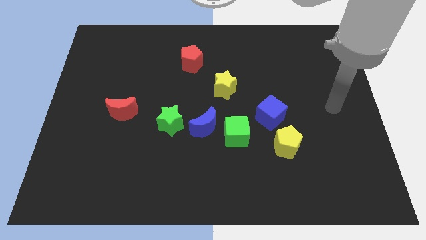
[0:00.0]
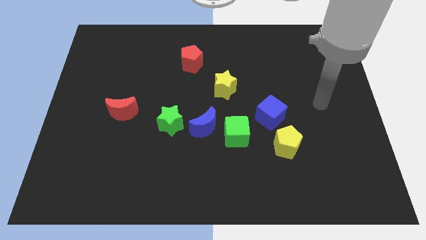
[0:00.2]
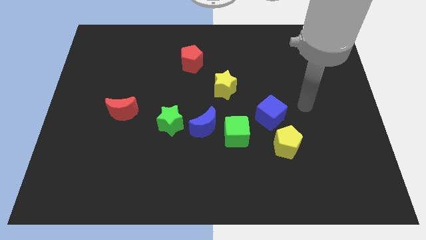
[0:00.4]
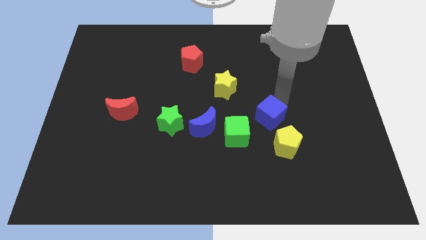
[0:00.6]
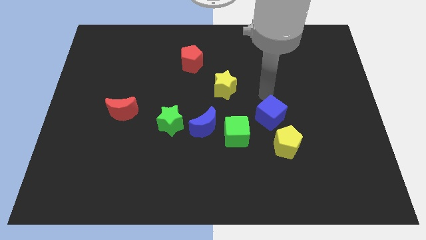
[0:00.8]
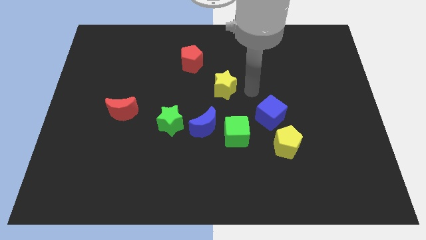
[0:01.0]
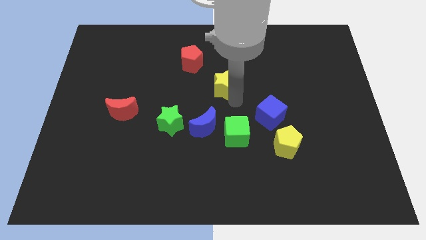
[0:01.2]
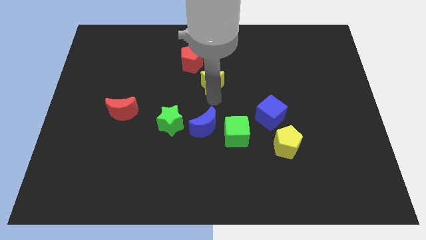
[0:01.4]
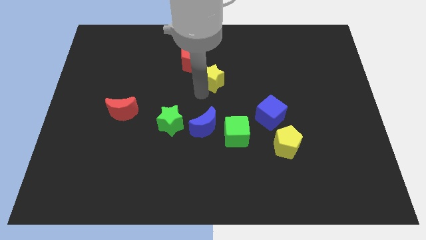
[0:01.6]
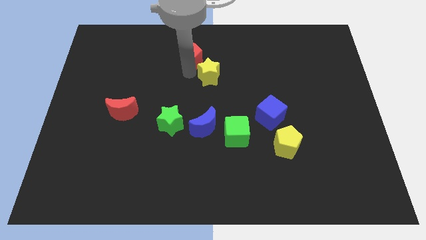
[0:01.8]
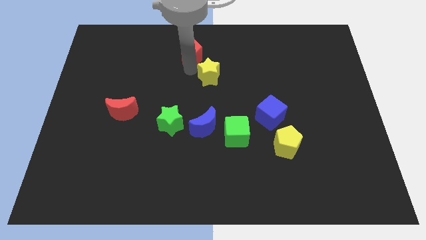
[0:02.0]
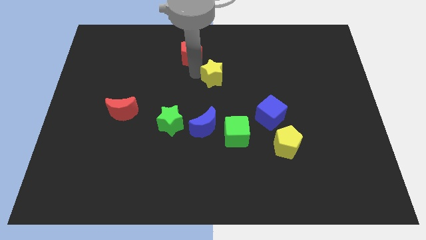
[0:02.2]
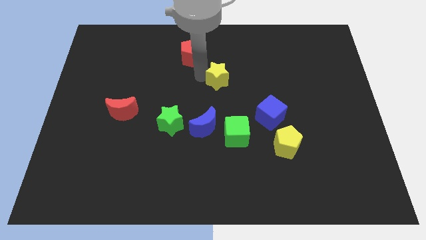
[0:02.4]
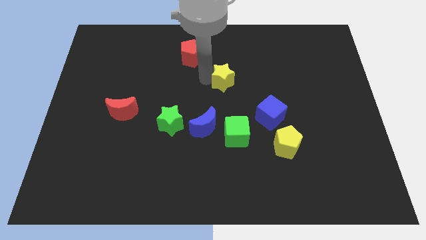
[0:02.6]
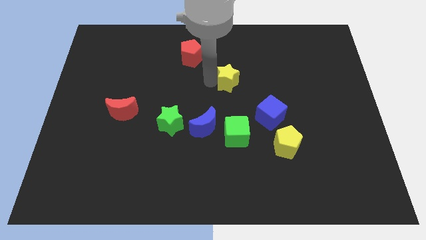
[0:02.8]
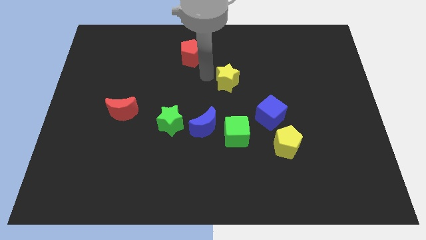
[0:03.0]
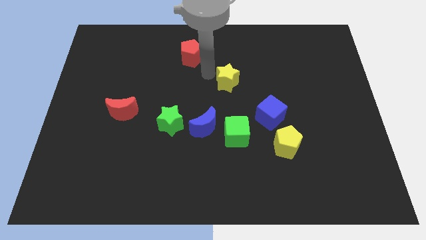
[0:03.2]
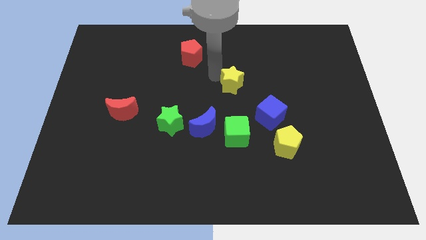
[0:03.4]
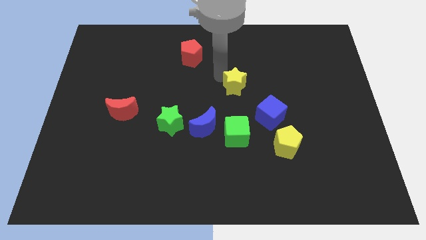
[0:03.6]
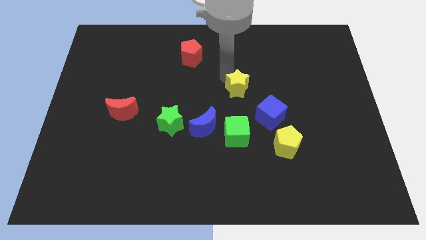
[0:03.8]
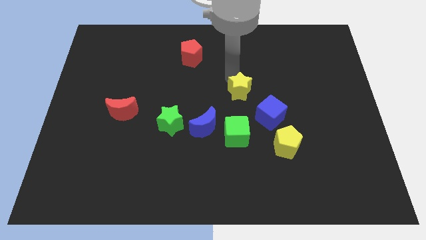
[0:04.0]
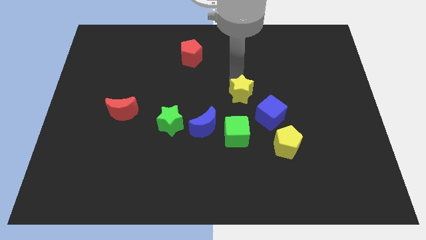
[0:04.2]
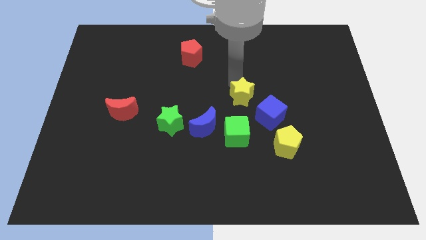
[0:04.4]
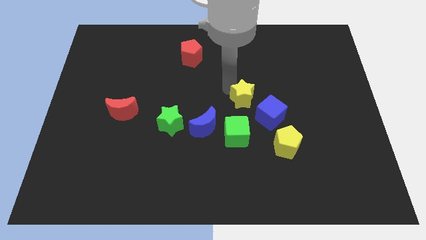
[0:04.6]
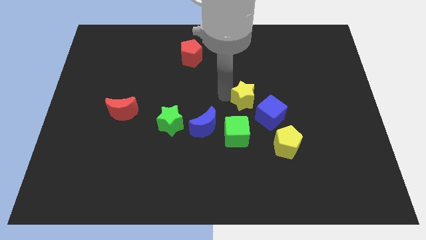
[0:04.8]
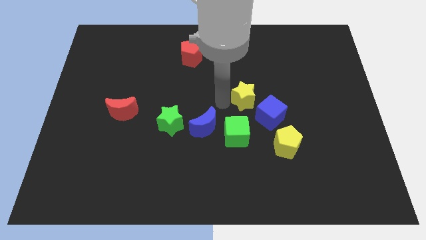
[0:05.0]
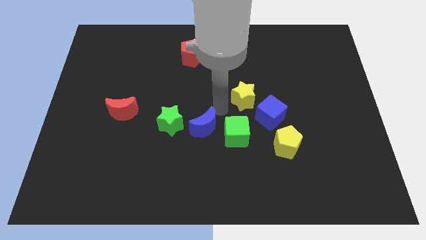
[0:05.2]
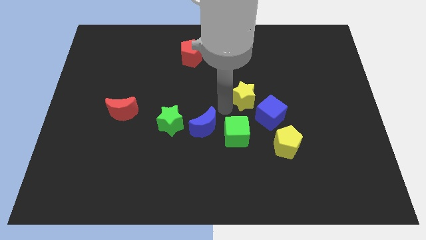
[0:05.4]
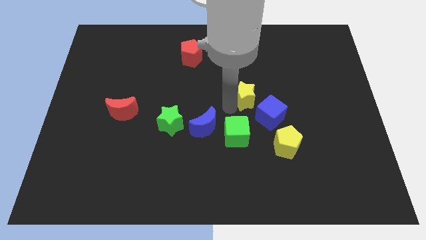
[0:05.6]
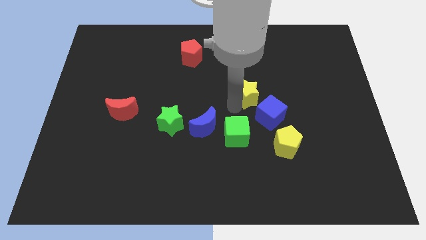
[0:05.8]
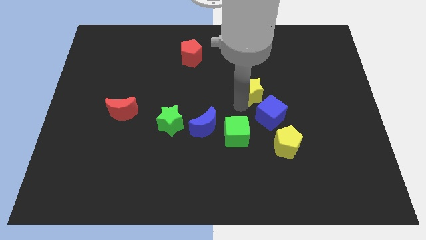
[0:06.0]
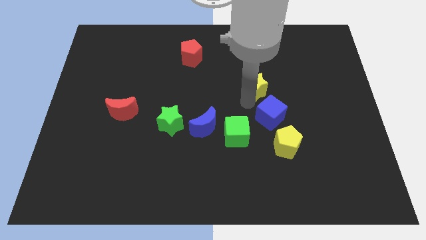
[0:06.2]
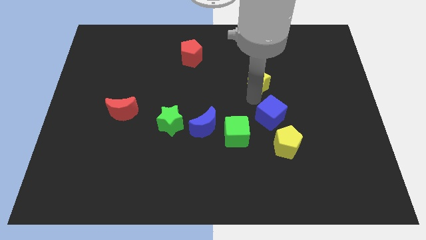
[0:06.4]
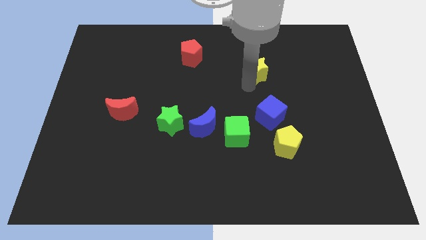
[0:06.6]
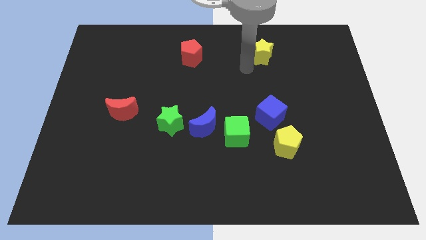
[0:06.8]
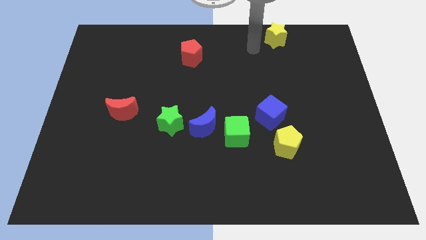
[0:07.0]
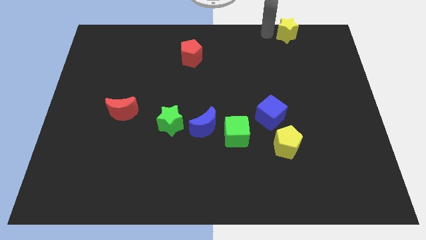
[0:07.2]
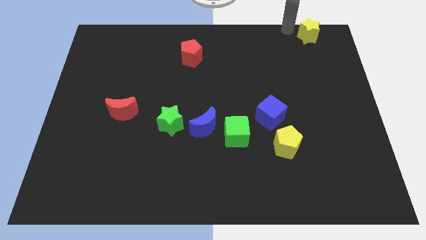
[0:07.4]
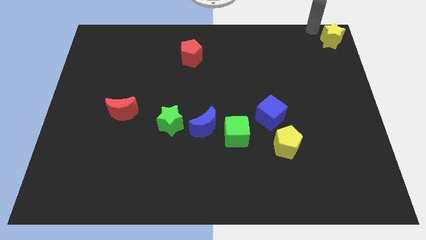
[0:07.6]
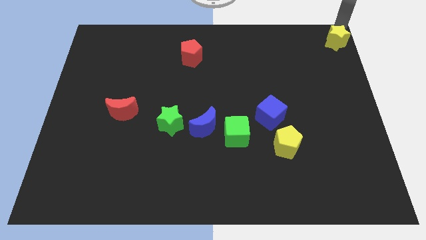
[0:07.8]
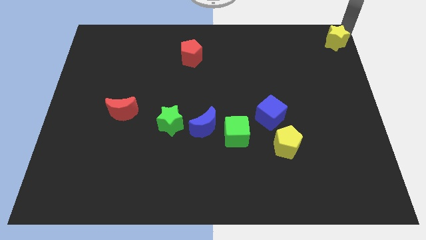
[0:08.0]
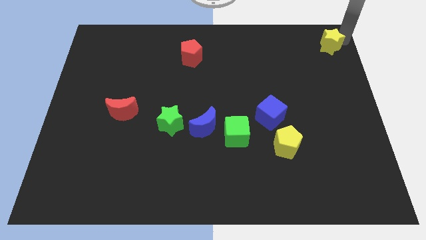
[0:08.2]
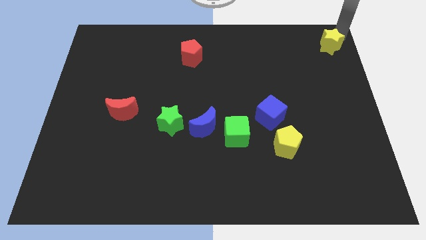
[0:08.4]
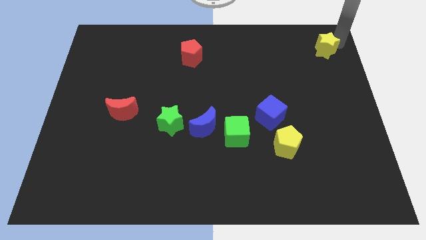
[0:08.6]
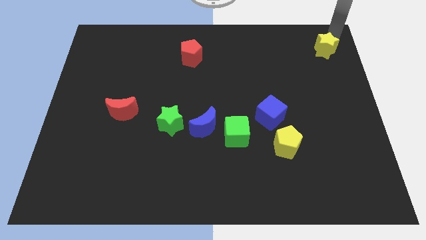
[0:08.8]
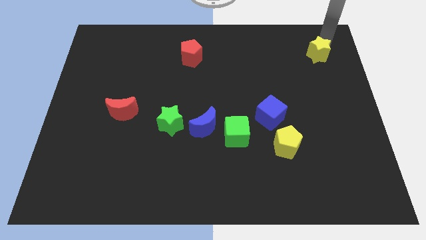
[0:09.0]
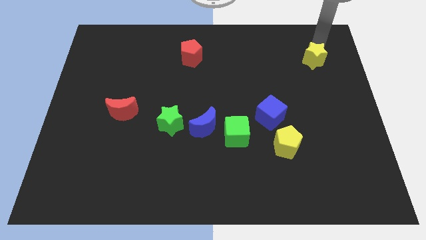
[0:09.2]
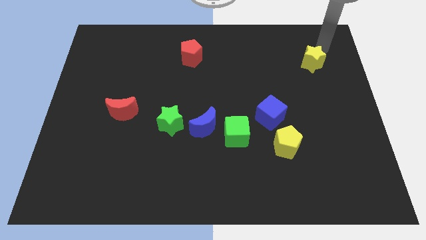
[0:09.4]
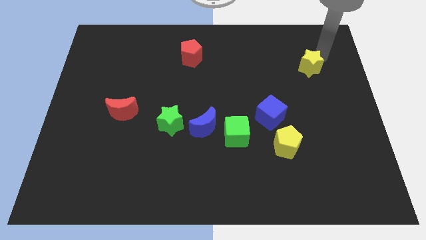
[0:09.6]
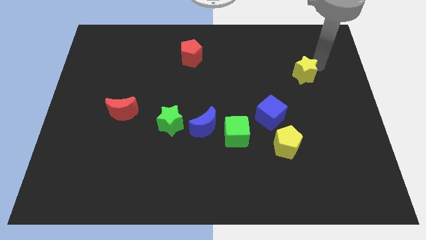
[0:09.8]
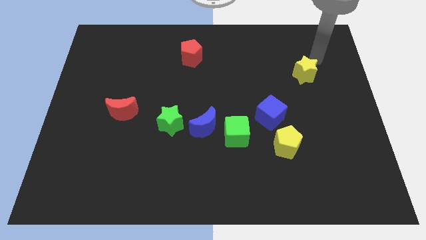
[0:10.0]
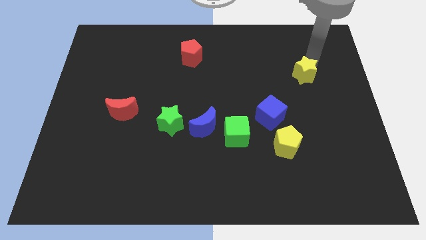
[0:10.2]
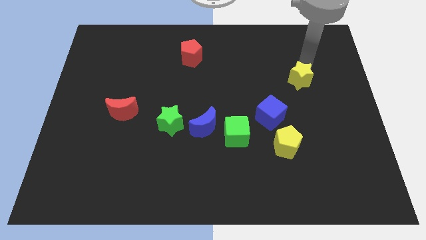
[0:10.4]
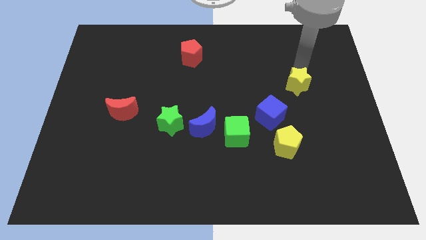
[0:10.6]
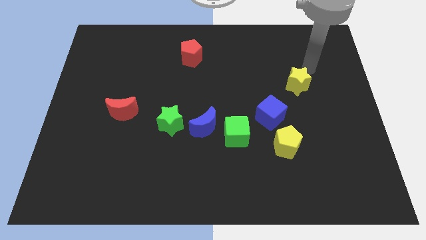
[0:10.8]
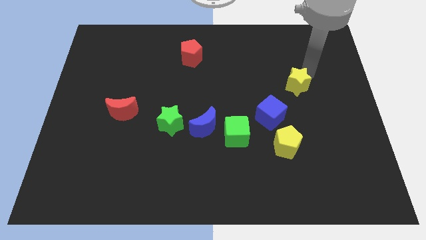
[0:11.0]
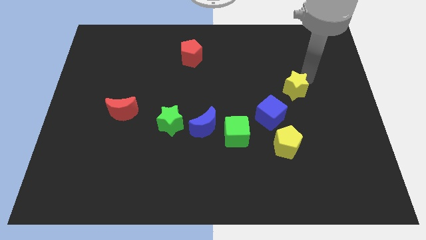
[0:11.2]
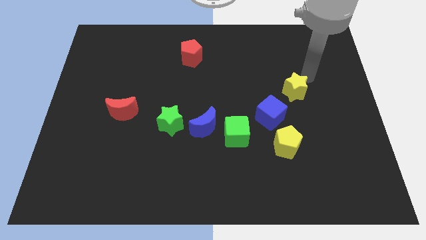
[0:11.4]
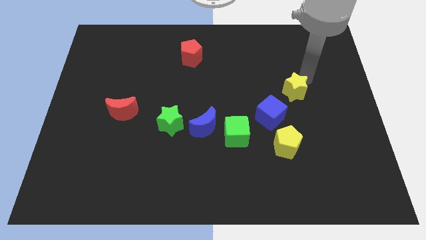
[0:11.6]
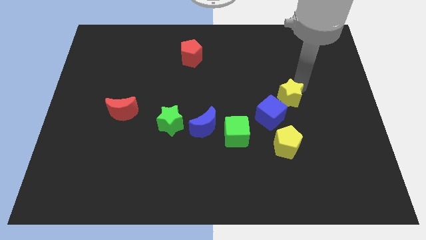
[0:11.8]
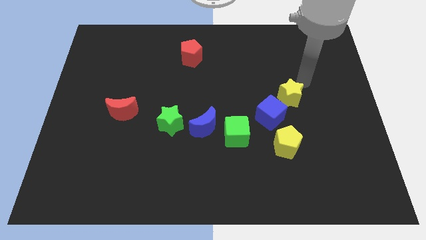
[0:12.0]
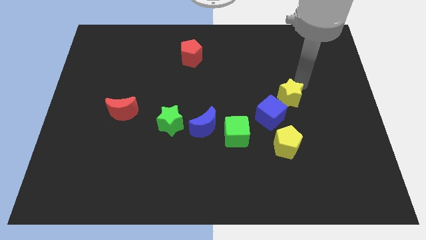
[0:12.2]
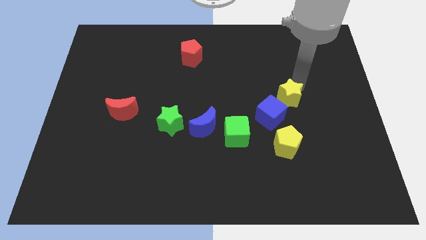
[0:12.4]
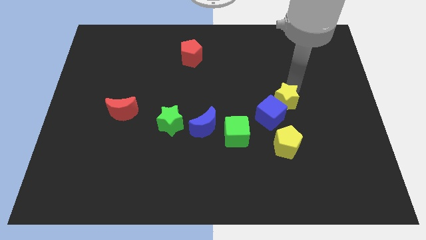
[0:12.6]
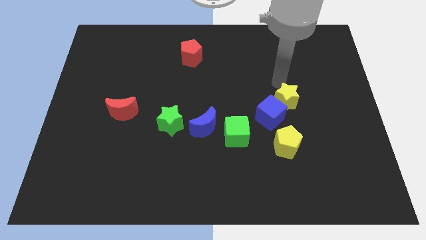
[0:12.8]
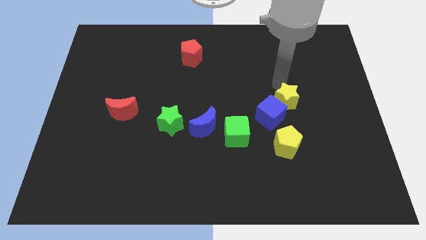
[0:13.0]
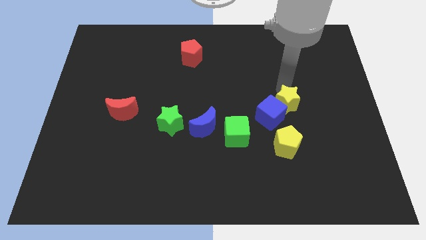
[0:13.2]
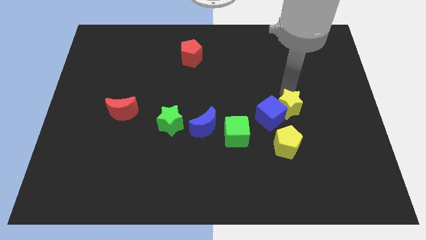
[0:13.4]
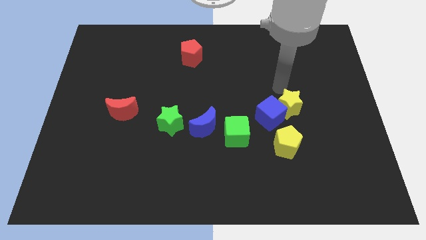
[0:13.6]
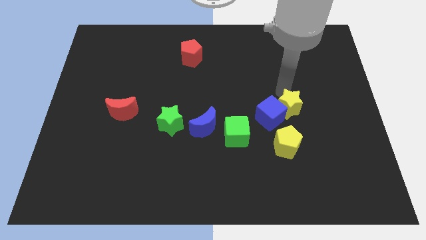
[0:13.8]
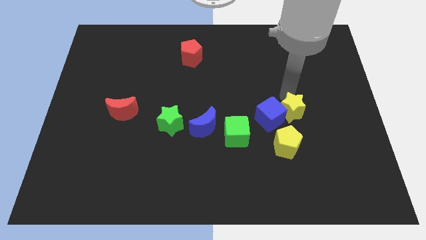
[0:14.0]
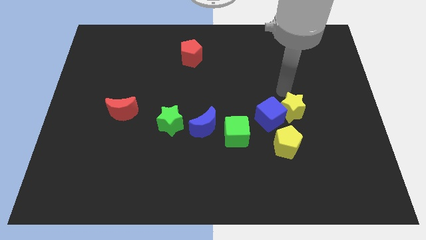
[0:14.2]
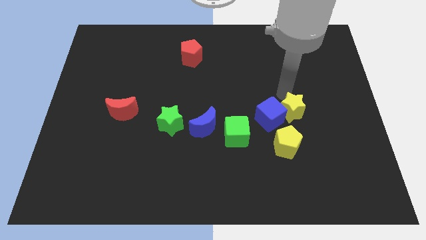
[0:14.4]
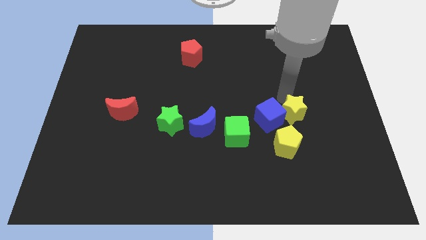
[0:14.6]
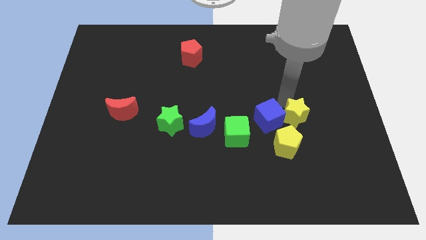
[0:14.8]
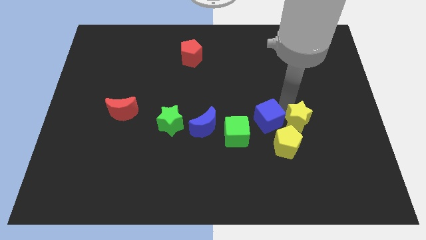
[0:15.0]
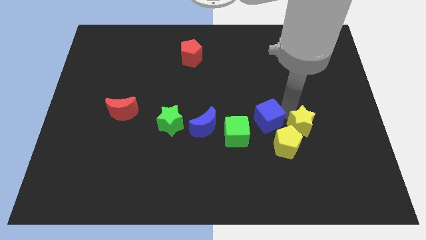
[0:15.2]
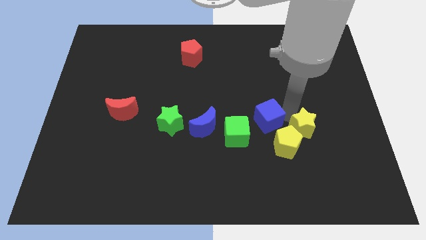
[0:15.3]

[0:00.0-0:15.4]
slide the yellow star downwards and then right
